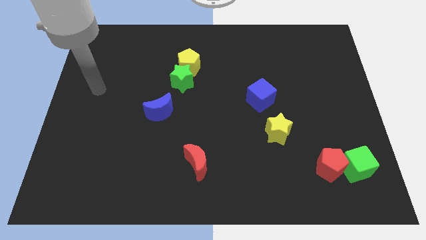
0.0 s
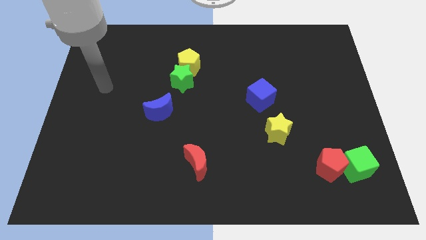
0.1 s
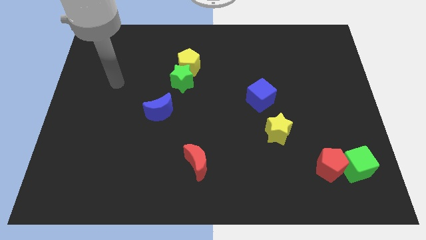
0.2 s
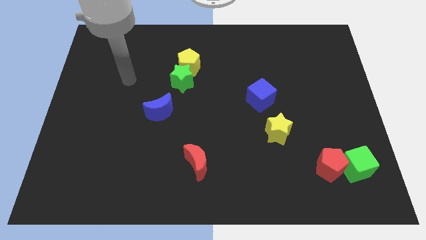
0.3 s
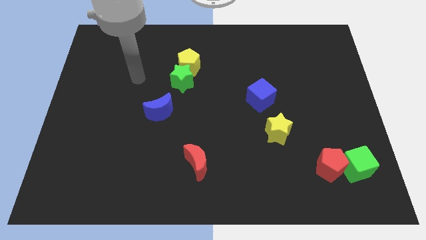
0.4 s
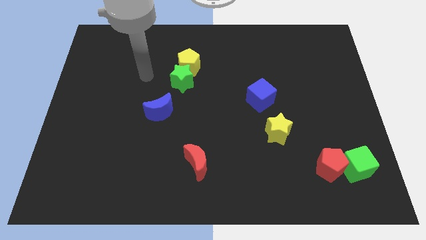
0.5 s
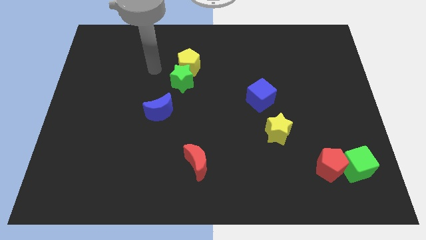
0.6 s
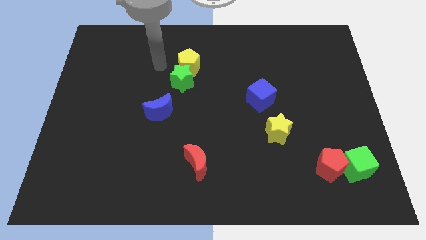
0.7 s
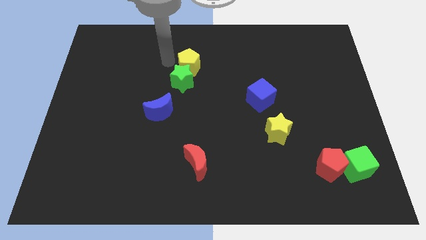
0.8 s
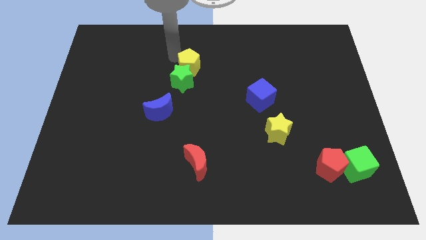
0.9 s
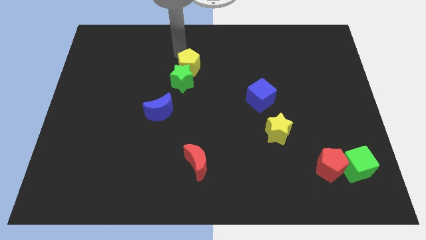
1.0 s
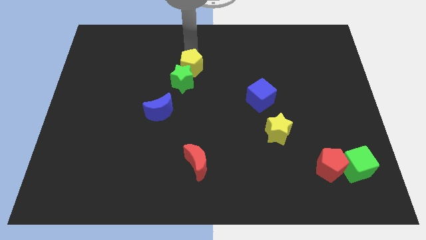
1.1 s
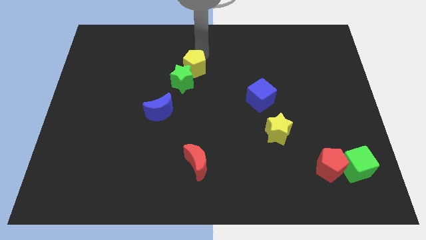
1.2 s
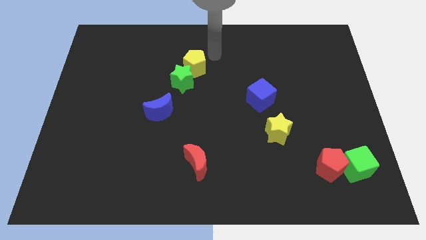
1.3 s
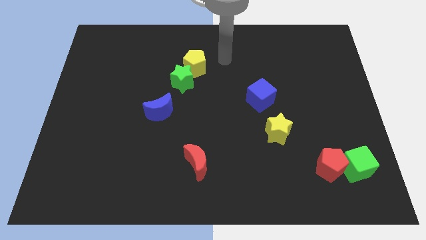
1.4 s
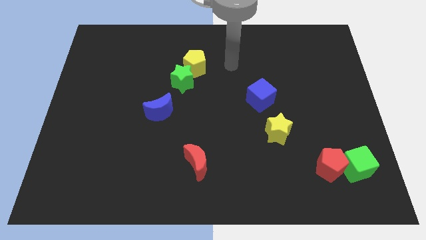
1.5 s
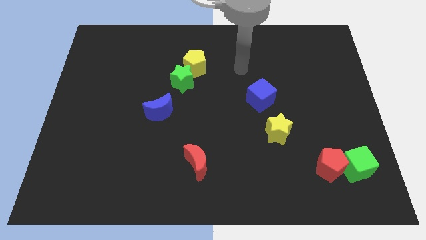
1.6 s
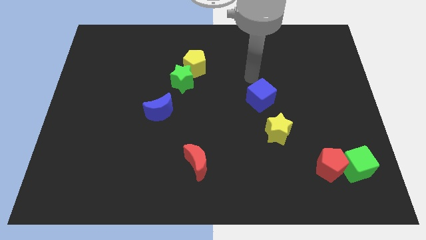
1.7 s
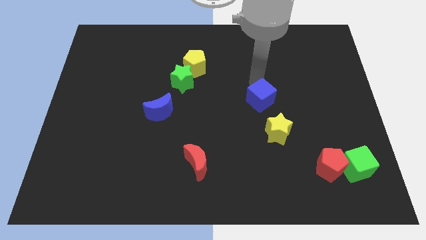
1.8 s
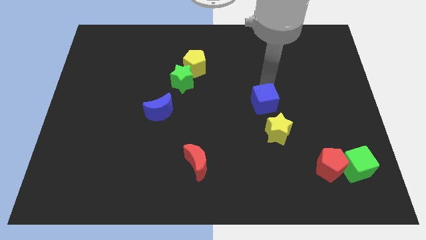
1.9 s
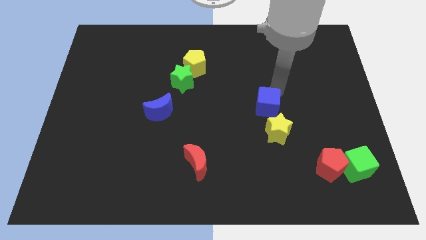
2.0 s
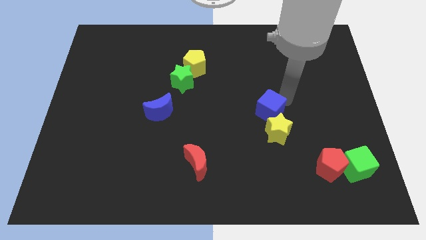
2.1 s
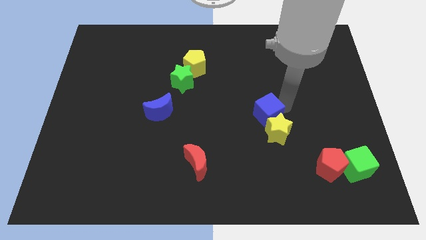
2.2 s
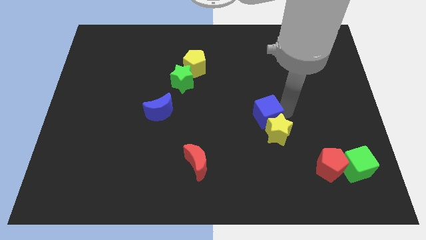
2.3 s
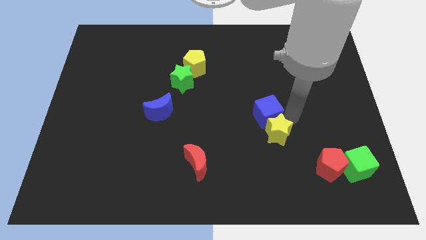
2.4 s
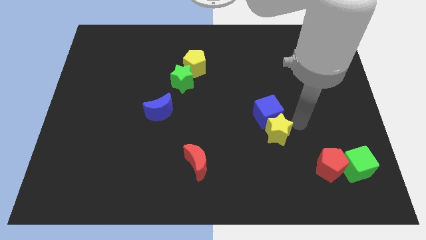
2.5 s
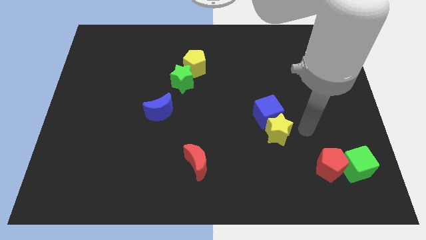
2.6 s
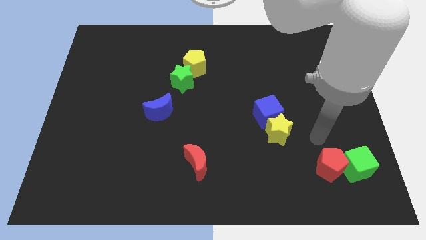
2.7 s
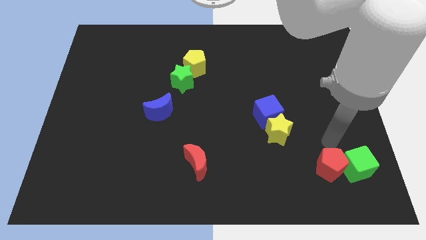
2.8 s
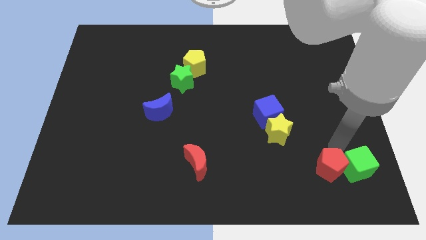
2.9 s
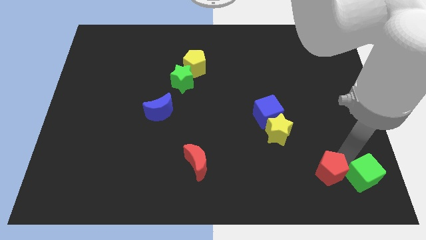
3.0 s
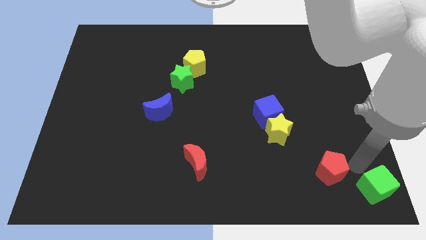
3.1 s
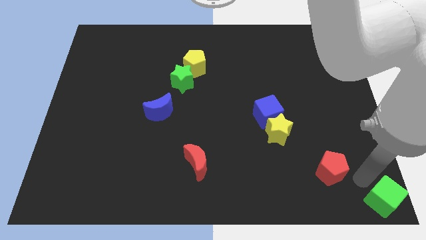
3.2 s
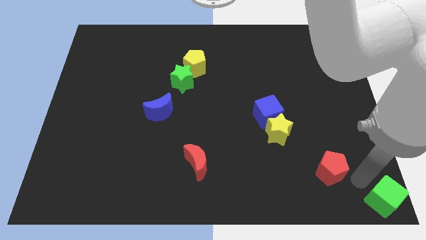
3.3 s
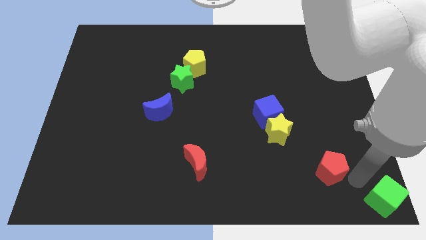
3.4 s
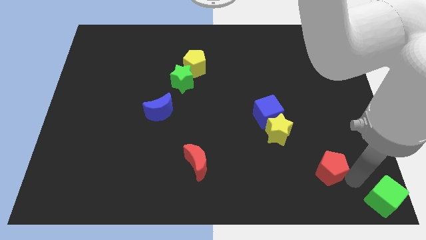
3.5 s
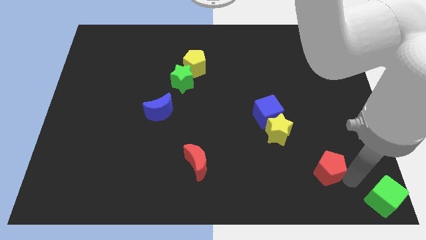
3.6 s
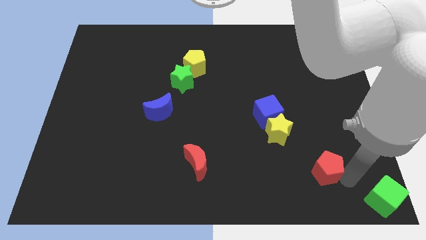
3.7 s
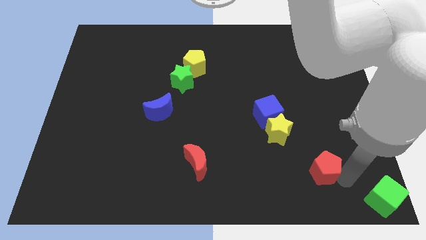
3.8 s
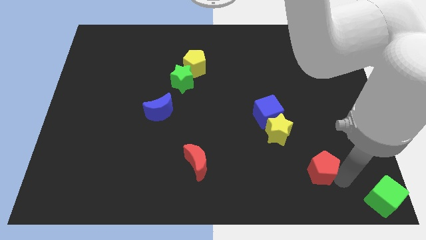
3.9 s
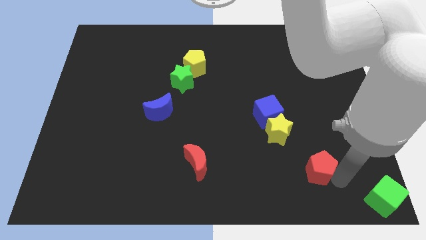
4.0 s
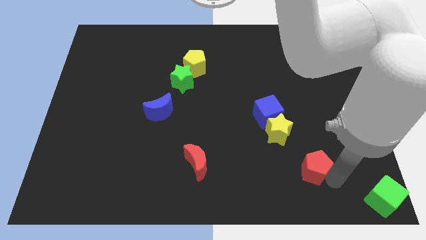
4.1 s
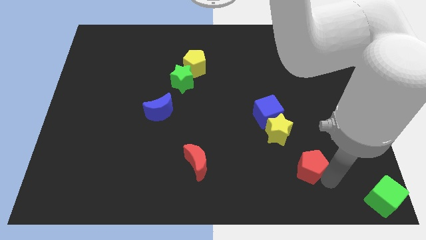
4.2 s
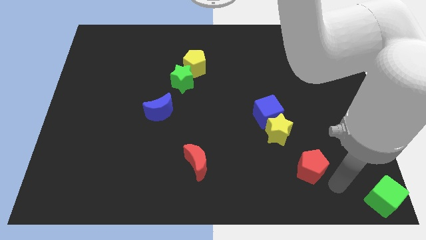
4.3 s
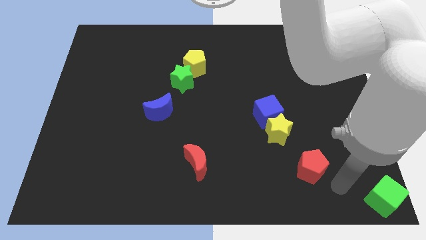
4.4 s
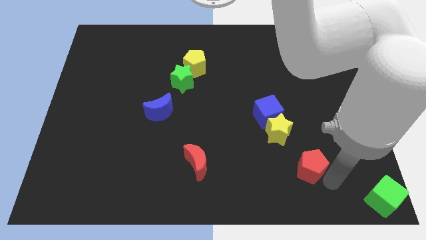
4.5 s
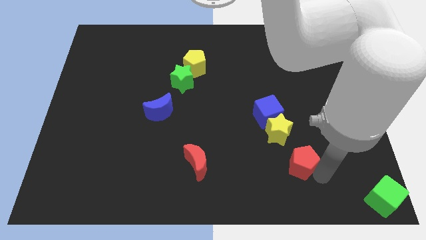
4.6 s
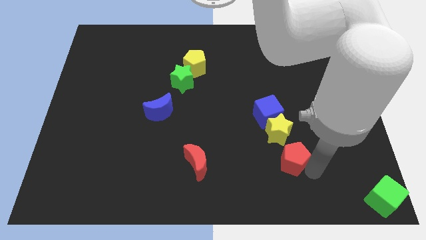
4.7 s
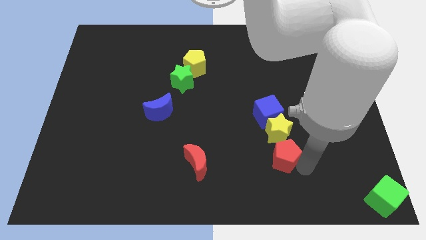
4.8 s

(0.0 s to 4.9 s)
move the red pentagon somewhat diagonally up and to the left

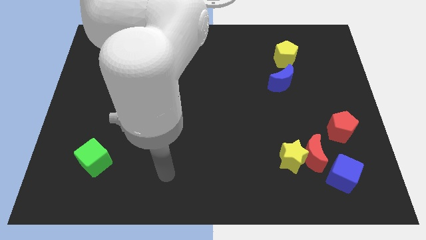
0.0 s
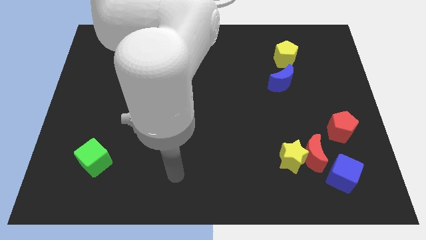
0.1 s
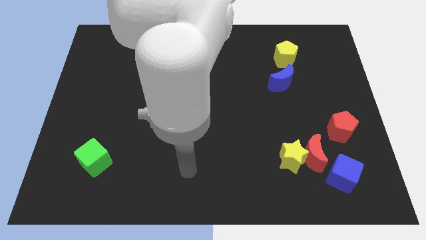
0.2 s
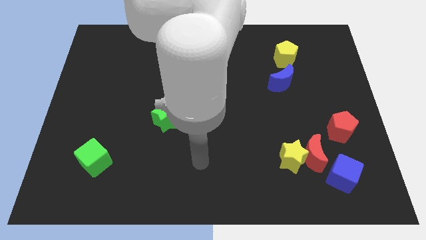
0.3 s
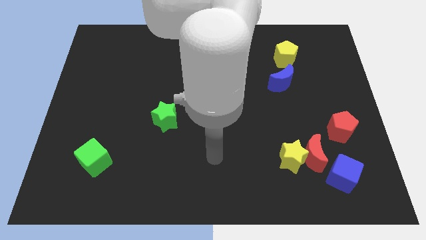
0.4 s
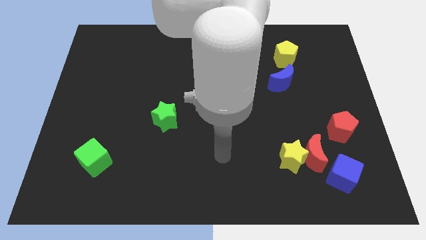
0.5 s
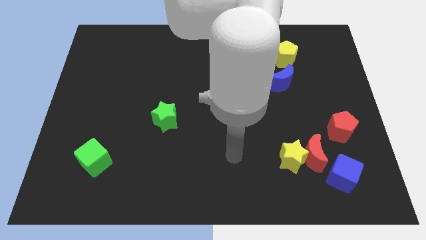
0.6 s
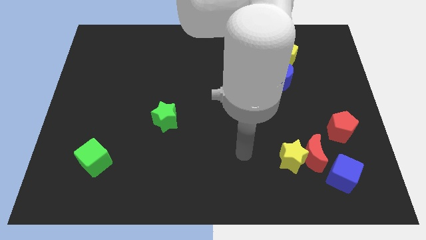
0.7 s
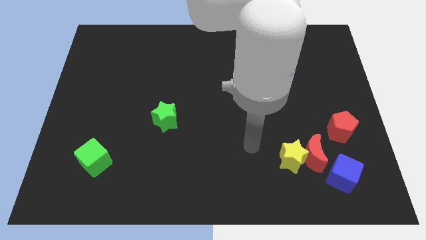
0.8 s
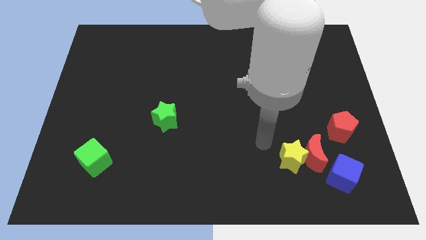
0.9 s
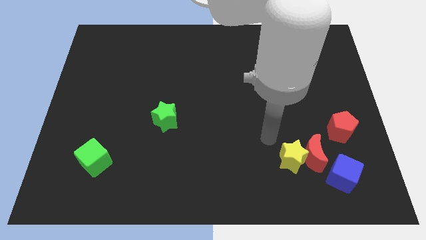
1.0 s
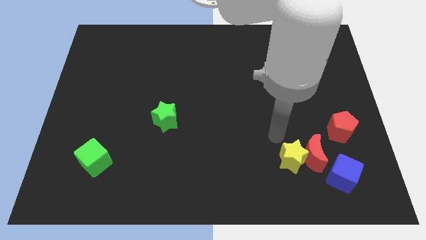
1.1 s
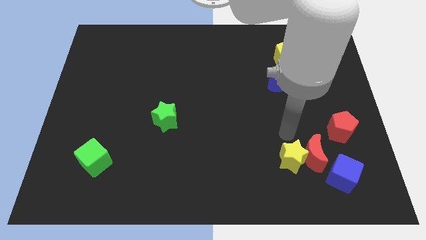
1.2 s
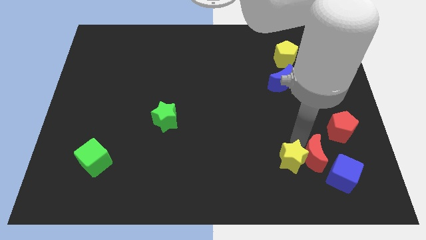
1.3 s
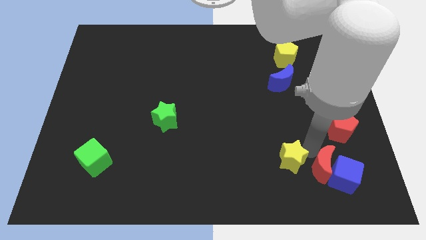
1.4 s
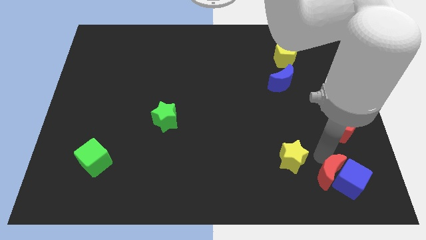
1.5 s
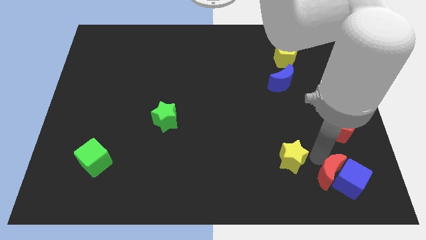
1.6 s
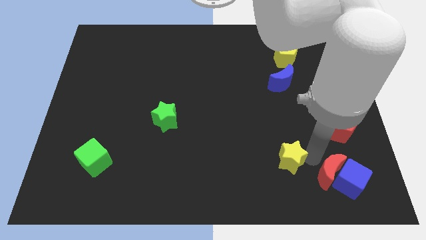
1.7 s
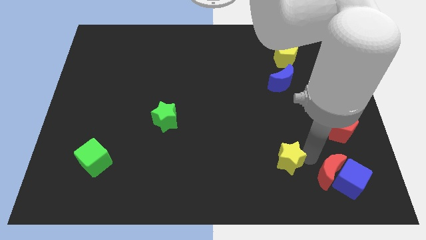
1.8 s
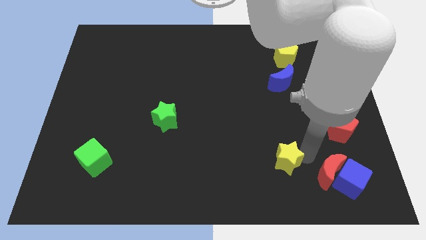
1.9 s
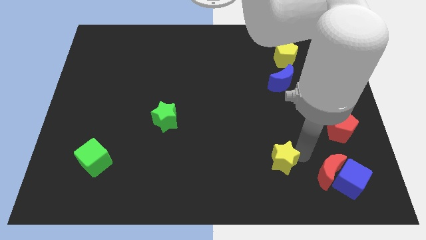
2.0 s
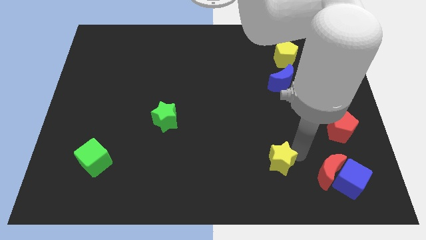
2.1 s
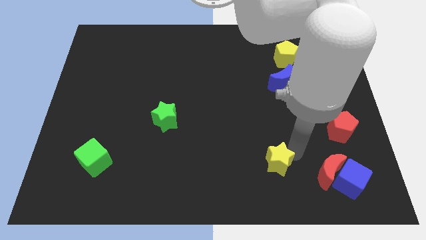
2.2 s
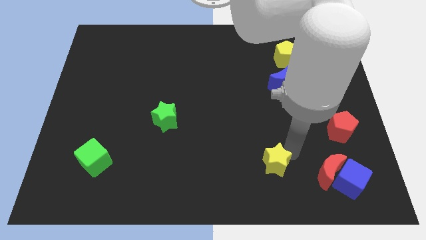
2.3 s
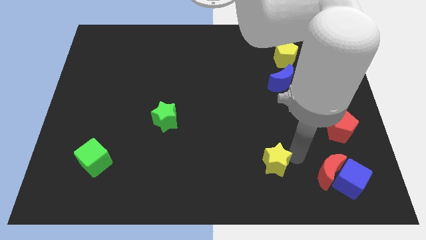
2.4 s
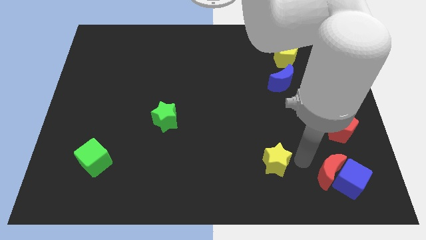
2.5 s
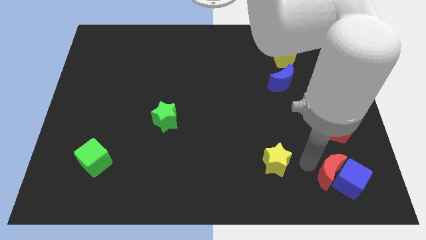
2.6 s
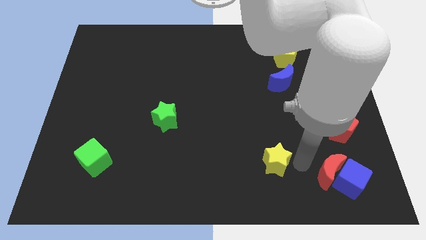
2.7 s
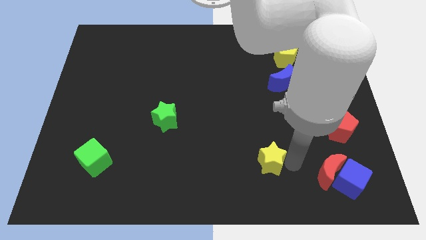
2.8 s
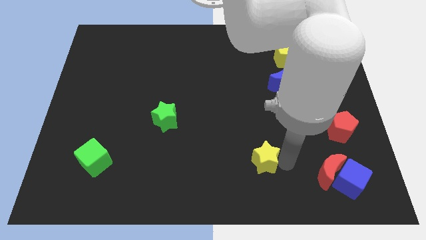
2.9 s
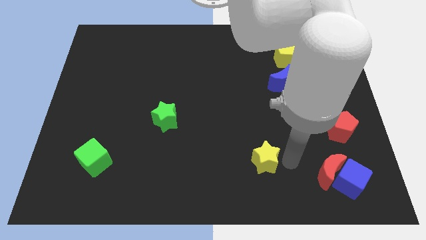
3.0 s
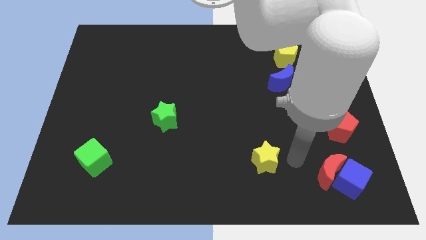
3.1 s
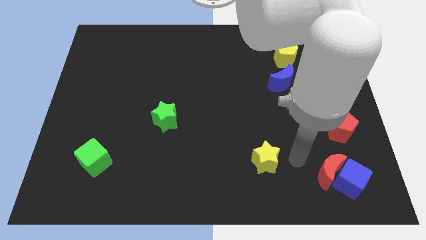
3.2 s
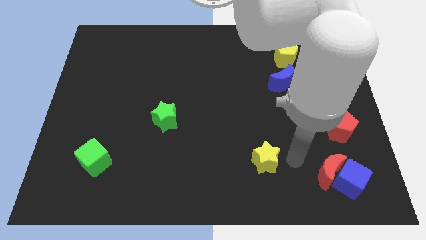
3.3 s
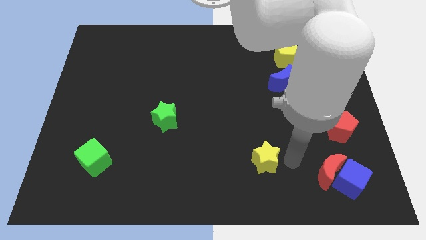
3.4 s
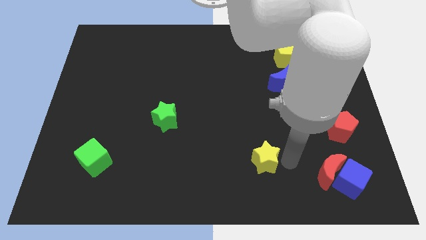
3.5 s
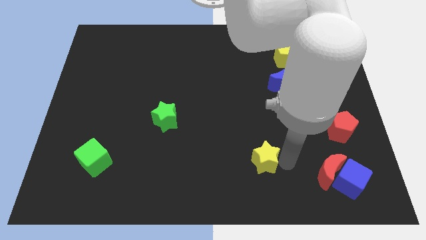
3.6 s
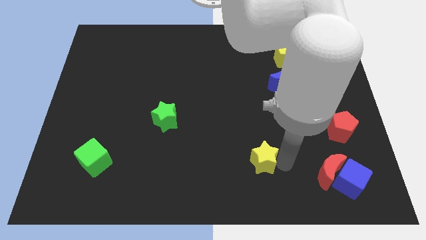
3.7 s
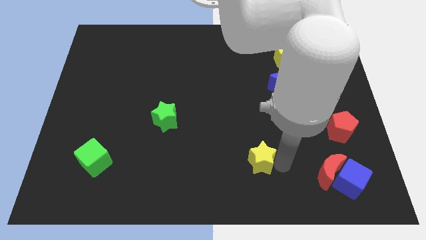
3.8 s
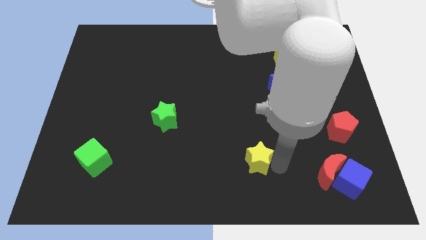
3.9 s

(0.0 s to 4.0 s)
slightly push the yellow star to the left
